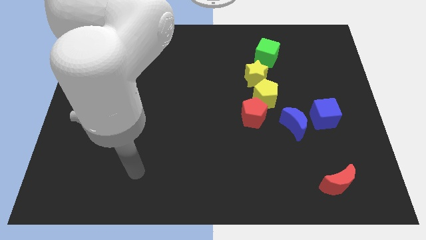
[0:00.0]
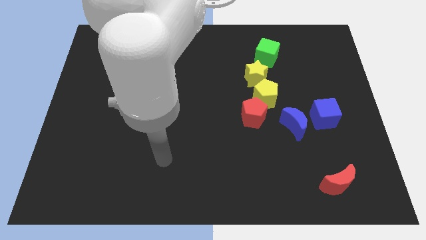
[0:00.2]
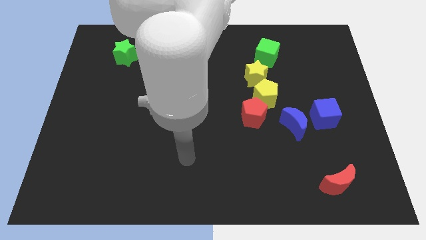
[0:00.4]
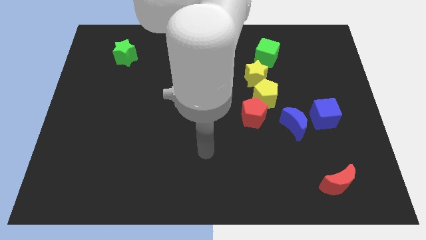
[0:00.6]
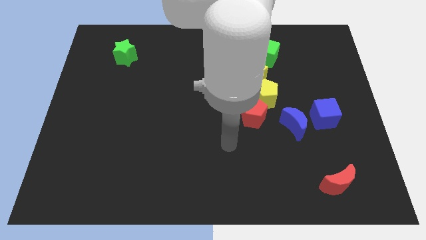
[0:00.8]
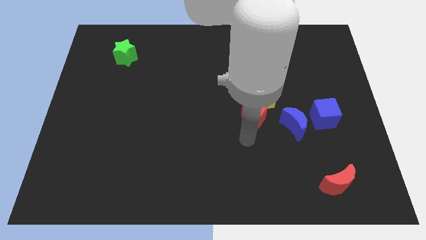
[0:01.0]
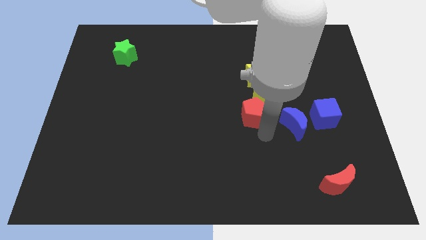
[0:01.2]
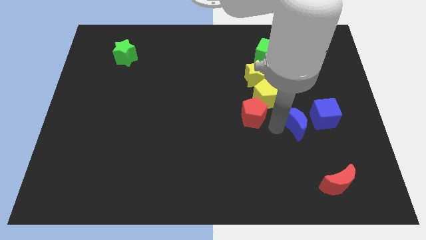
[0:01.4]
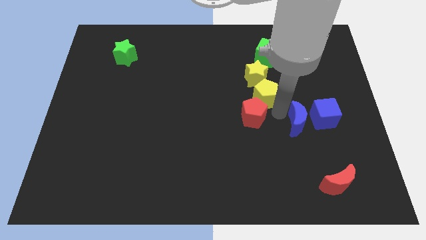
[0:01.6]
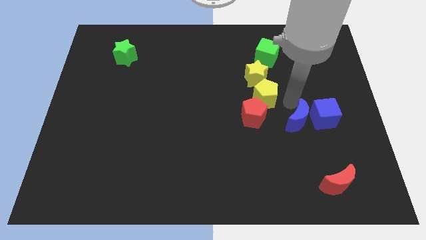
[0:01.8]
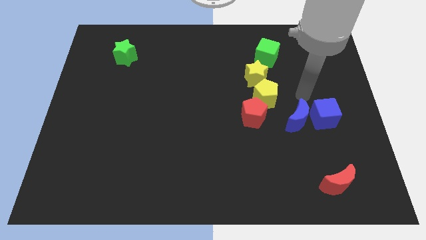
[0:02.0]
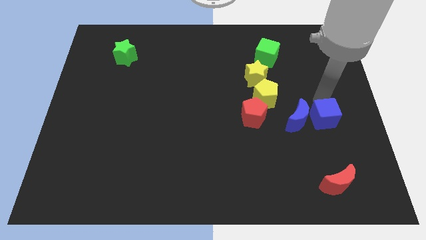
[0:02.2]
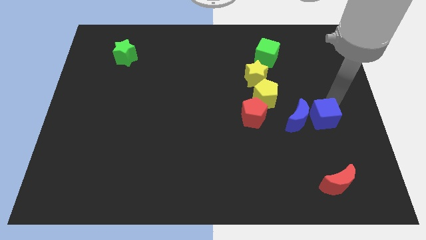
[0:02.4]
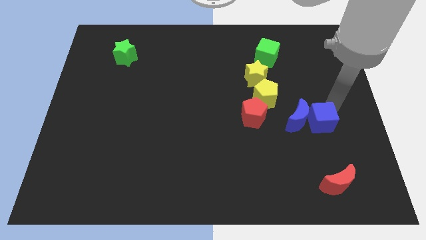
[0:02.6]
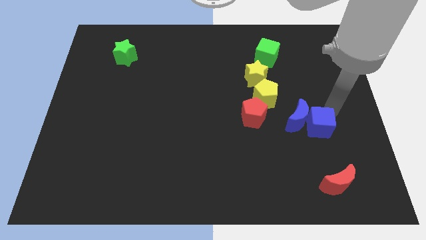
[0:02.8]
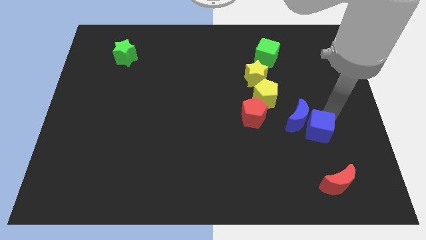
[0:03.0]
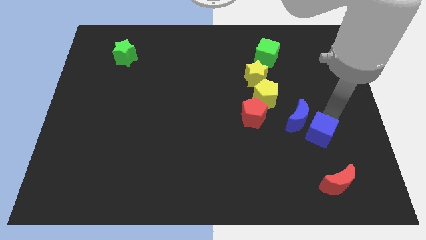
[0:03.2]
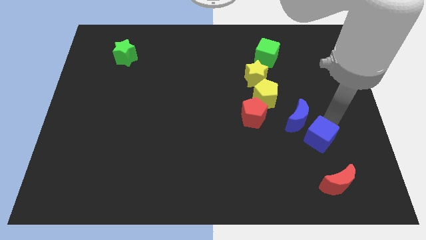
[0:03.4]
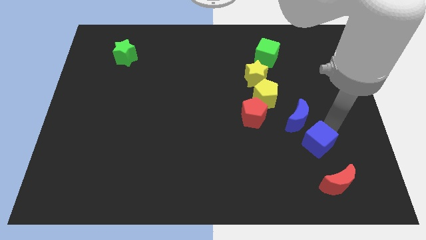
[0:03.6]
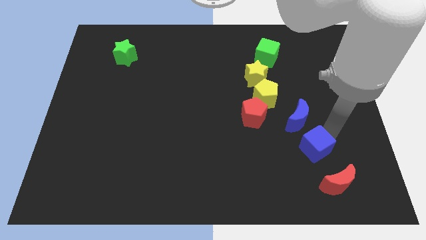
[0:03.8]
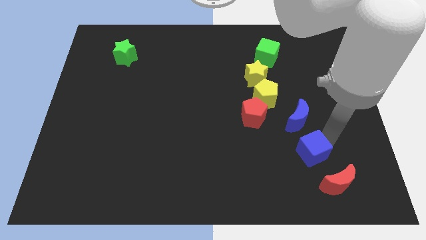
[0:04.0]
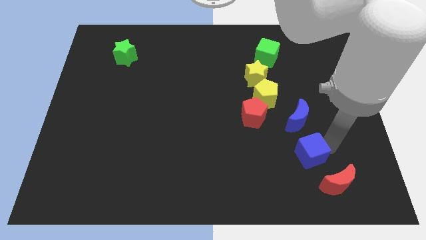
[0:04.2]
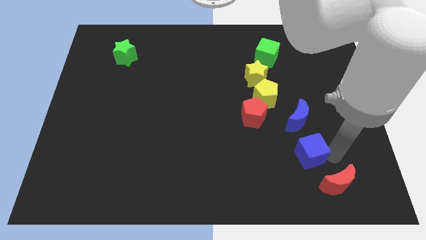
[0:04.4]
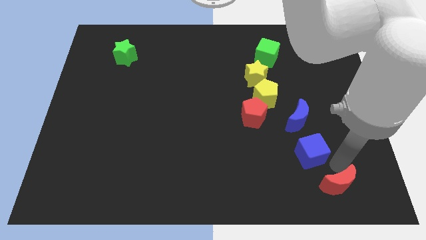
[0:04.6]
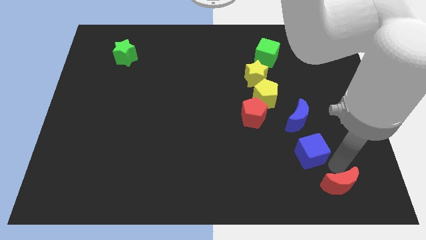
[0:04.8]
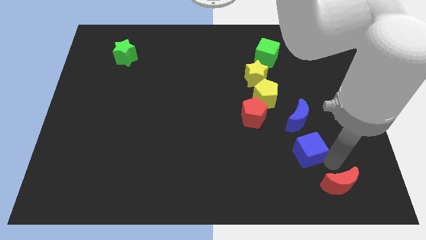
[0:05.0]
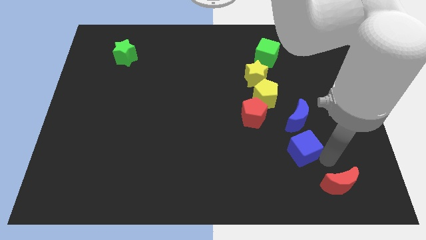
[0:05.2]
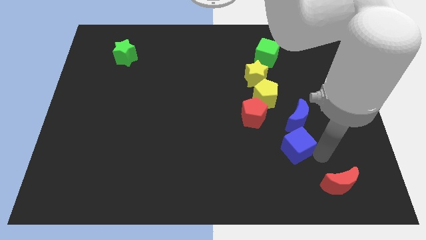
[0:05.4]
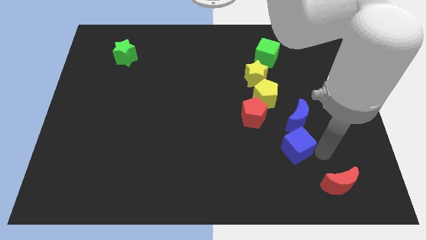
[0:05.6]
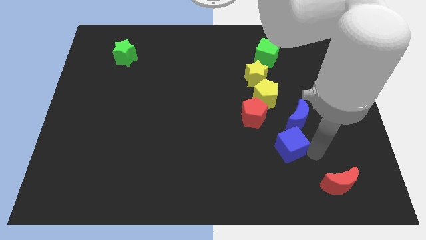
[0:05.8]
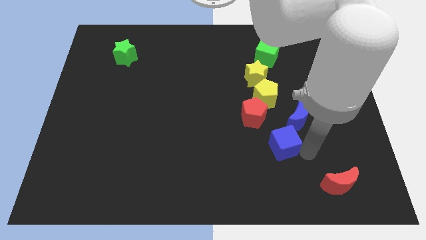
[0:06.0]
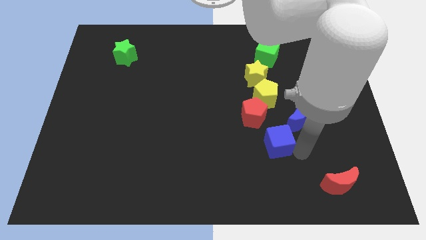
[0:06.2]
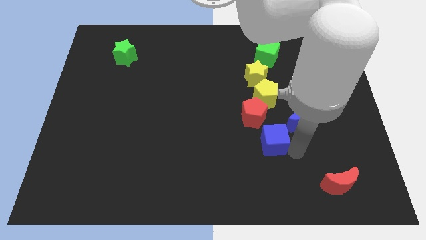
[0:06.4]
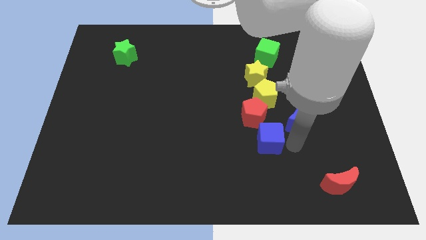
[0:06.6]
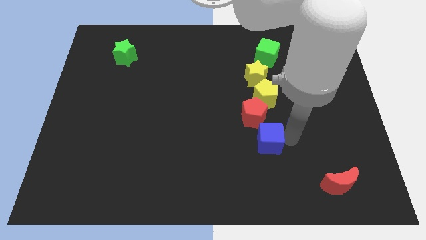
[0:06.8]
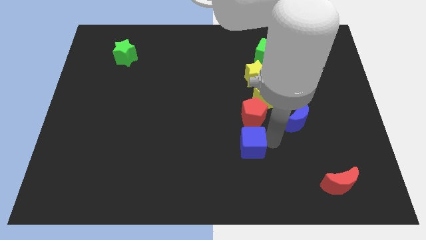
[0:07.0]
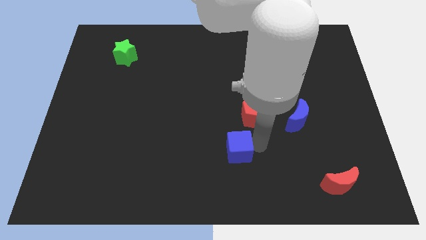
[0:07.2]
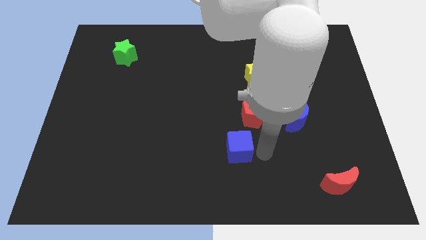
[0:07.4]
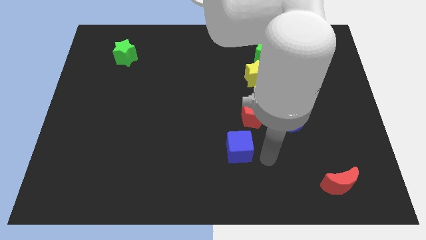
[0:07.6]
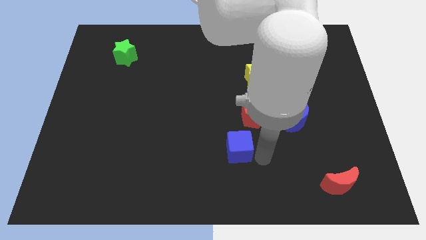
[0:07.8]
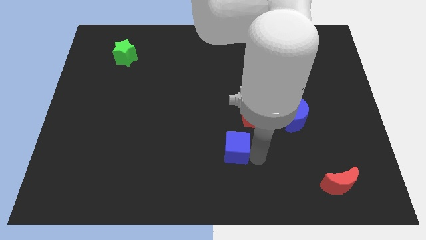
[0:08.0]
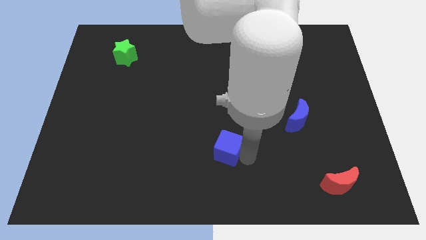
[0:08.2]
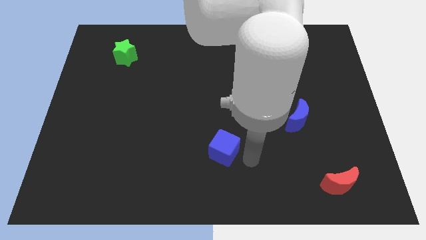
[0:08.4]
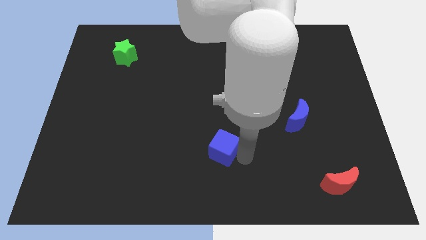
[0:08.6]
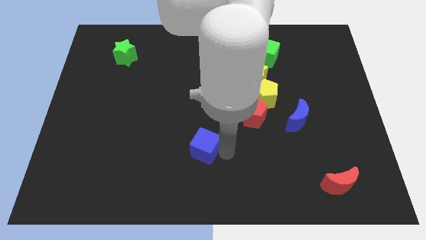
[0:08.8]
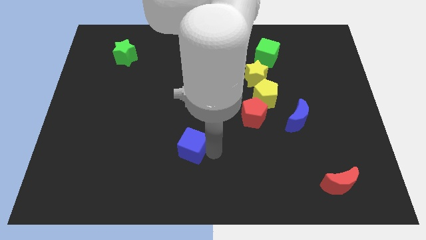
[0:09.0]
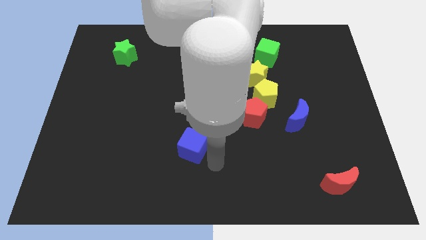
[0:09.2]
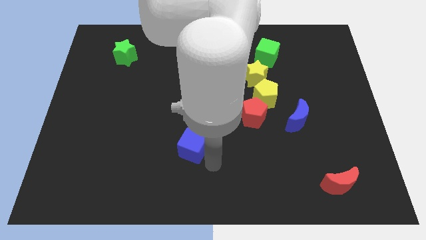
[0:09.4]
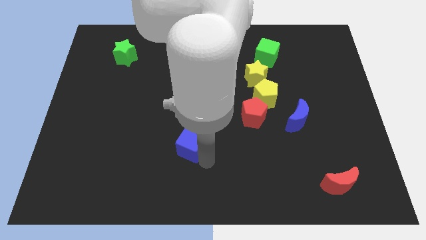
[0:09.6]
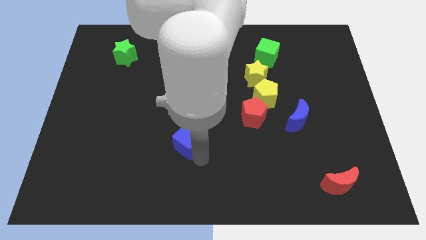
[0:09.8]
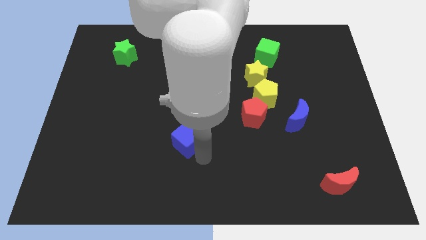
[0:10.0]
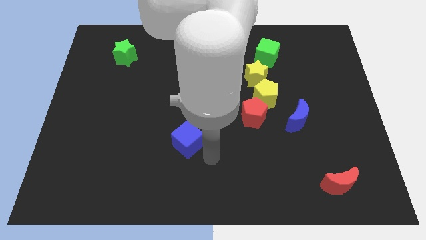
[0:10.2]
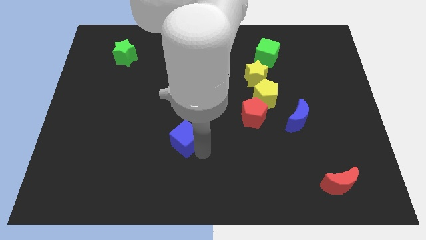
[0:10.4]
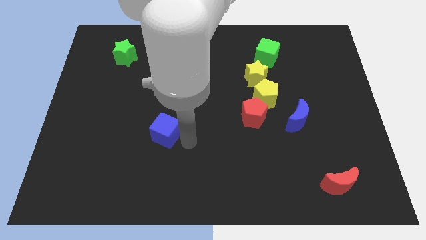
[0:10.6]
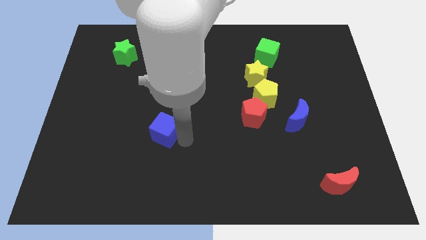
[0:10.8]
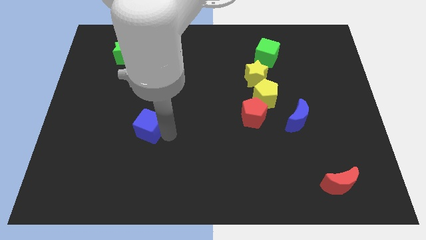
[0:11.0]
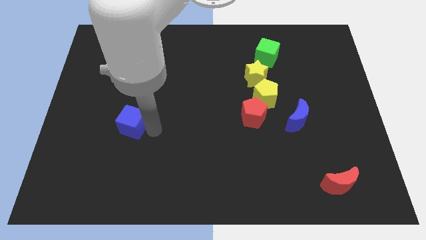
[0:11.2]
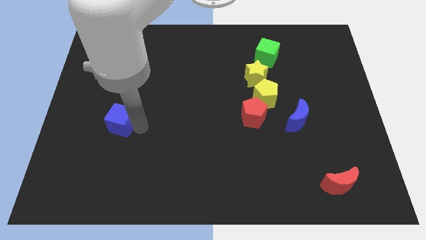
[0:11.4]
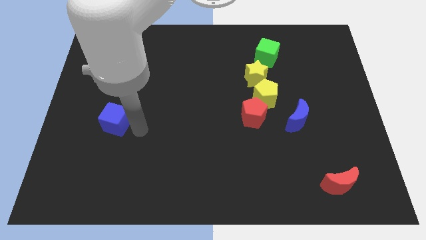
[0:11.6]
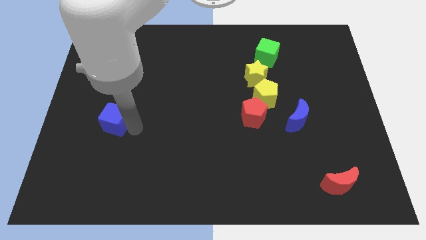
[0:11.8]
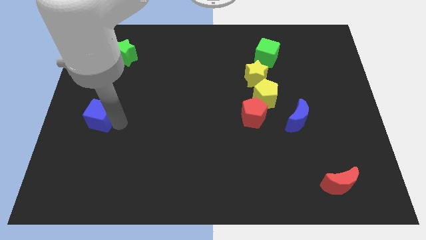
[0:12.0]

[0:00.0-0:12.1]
put the blue cube to the left side of the board
